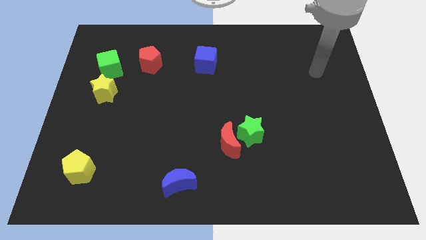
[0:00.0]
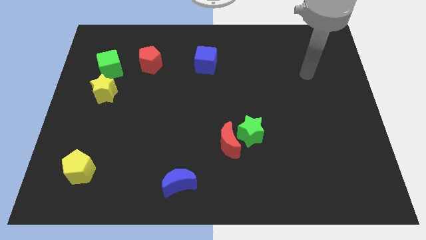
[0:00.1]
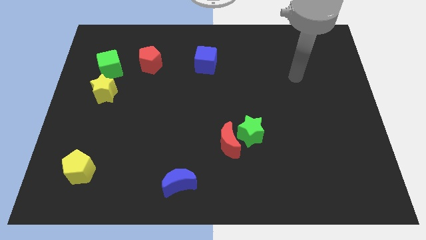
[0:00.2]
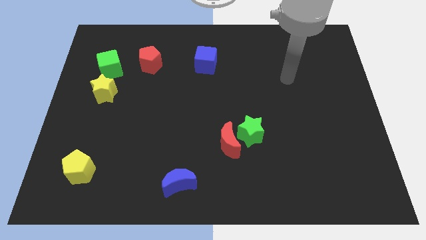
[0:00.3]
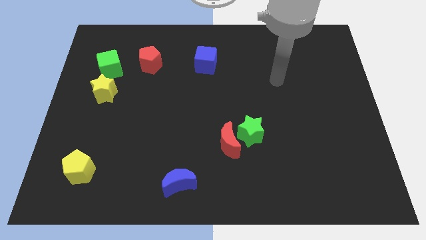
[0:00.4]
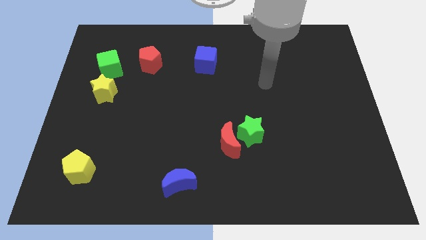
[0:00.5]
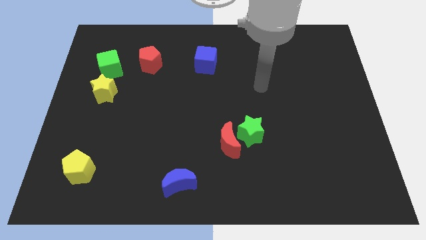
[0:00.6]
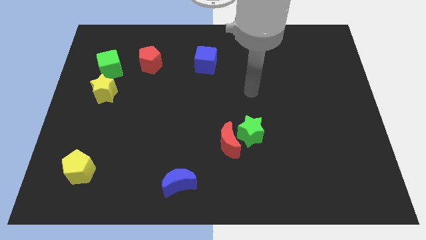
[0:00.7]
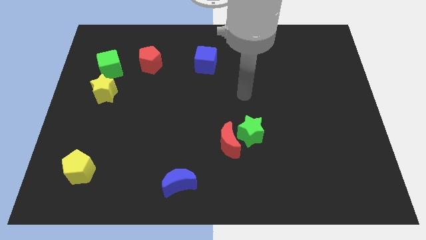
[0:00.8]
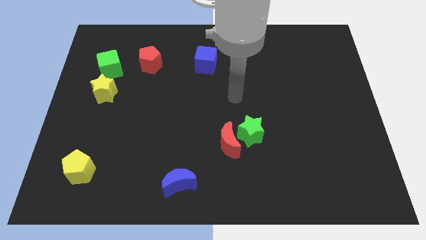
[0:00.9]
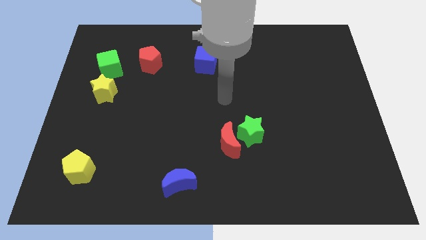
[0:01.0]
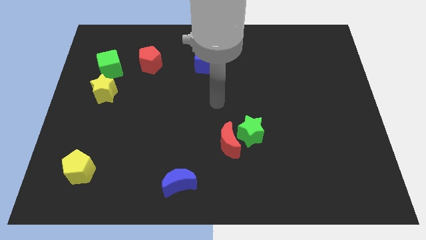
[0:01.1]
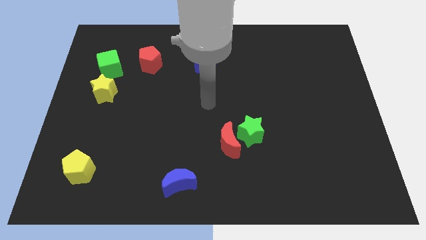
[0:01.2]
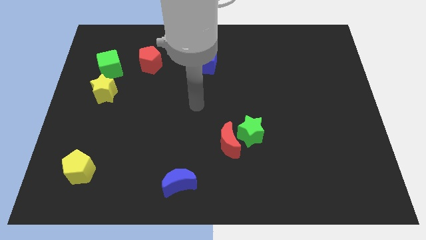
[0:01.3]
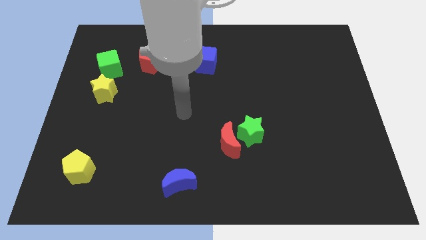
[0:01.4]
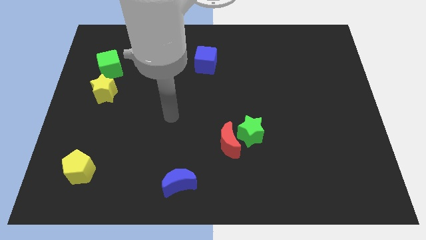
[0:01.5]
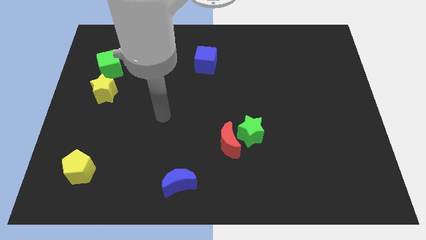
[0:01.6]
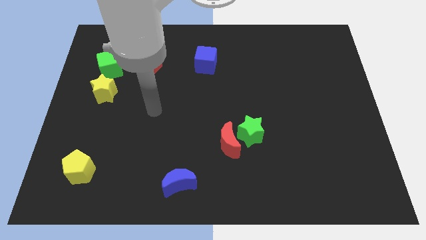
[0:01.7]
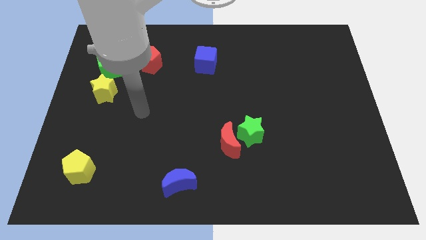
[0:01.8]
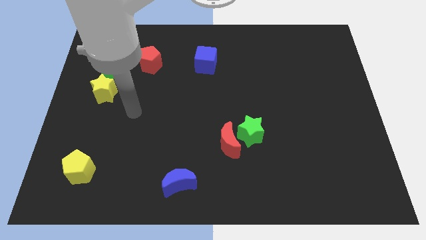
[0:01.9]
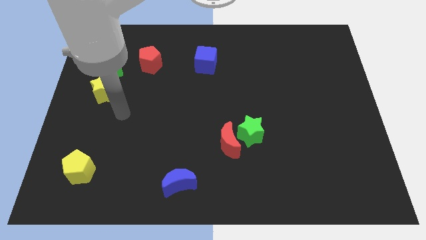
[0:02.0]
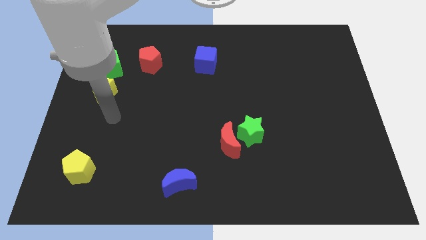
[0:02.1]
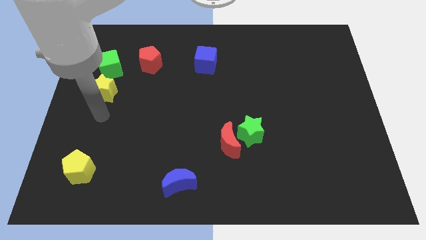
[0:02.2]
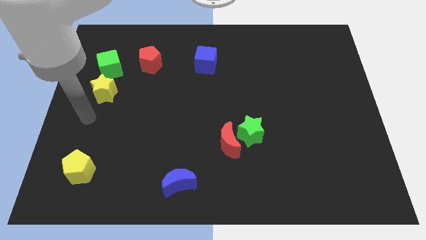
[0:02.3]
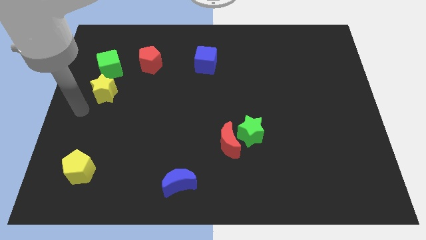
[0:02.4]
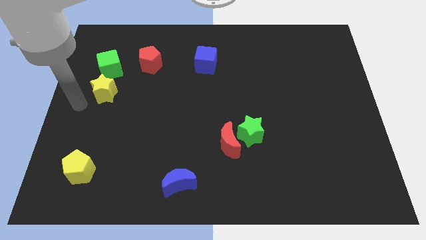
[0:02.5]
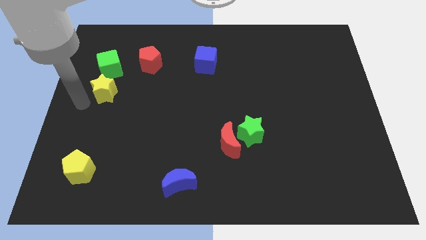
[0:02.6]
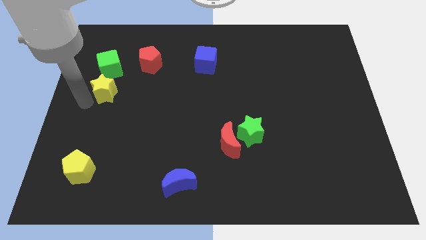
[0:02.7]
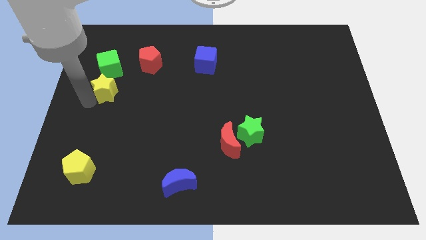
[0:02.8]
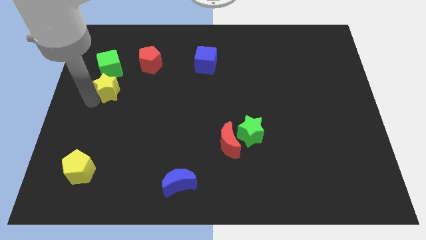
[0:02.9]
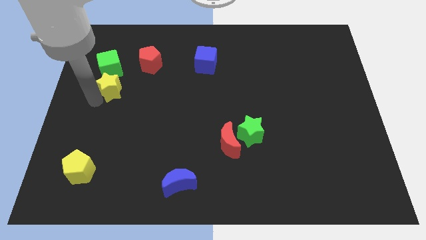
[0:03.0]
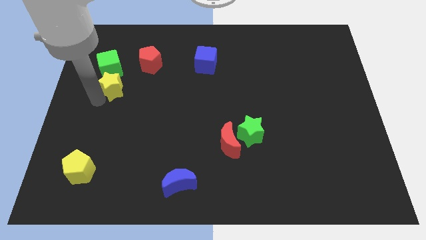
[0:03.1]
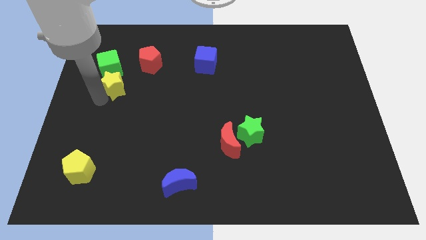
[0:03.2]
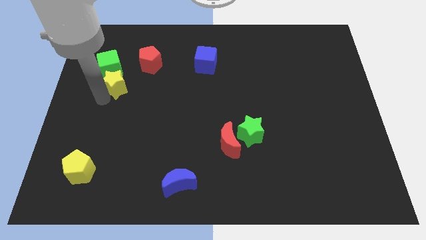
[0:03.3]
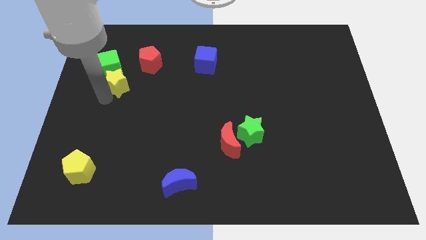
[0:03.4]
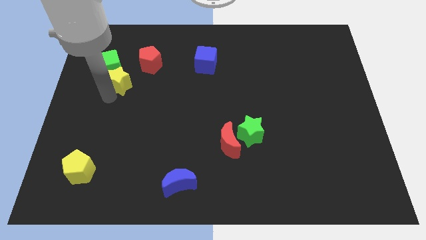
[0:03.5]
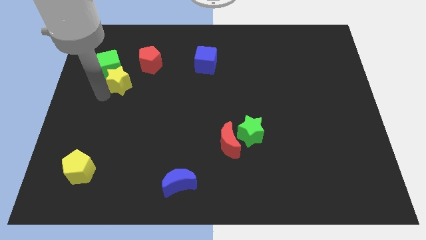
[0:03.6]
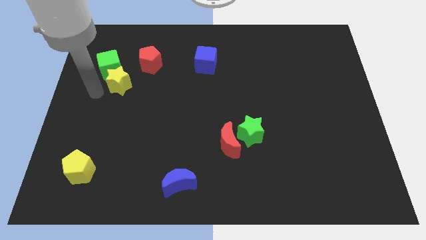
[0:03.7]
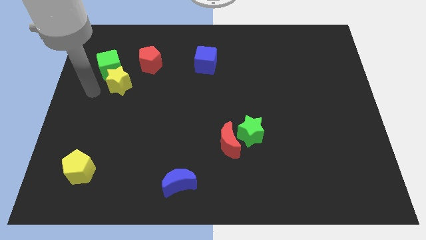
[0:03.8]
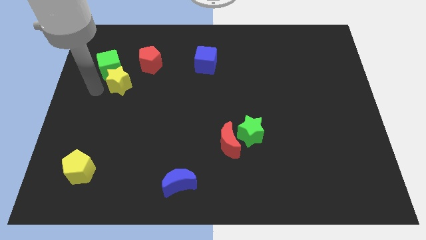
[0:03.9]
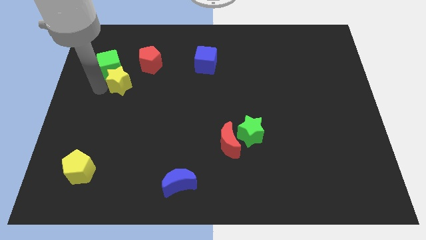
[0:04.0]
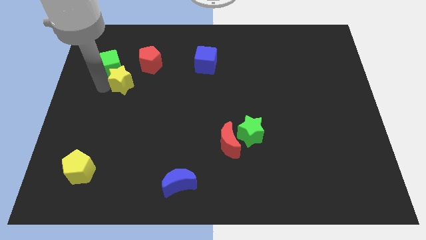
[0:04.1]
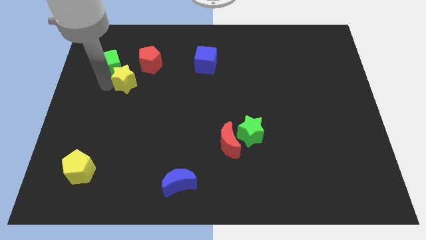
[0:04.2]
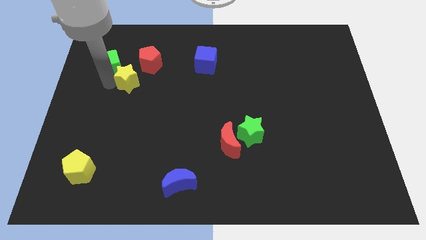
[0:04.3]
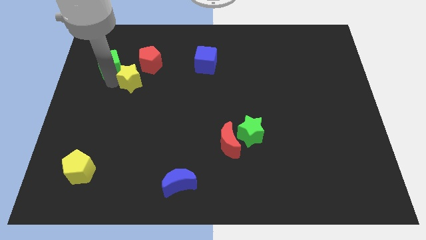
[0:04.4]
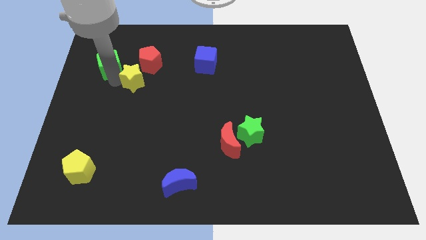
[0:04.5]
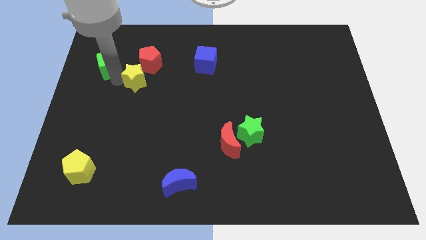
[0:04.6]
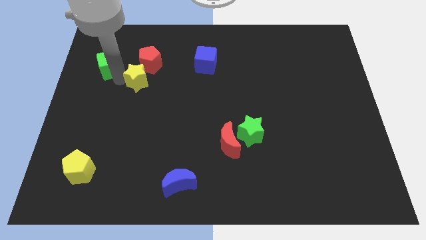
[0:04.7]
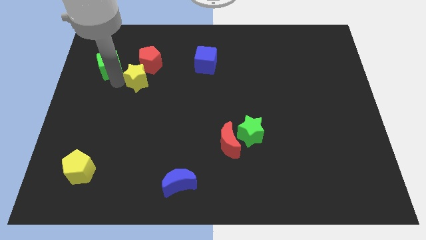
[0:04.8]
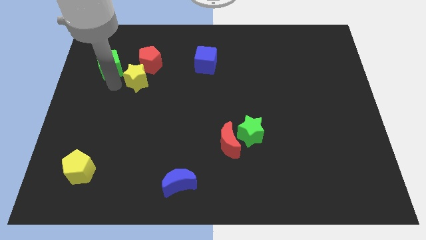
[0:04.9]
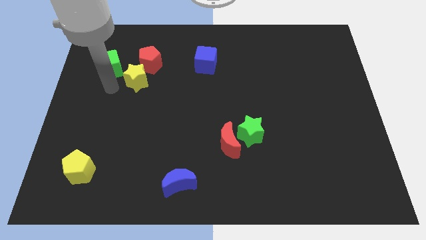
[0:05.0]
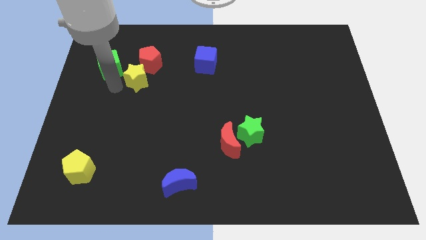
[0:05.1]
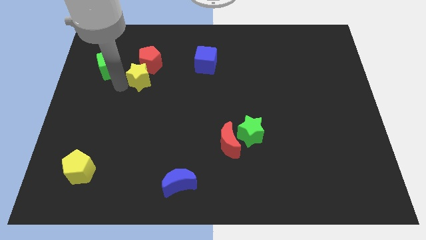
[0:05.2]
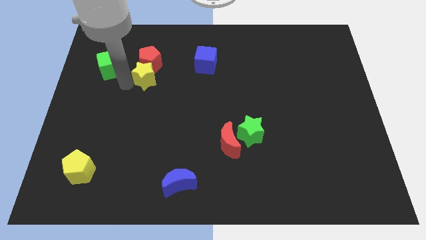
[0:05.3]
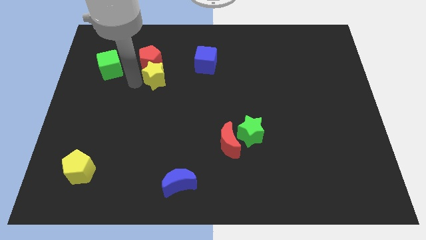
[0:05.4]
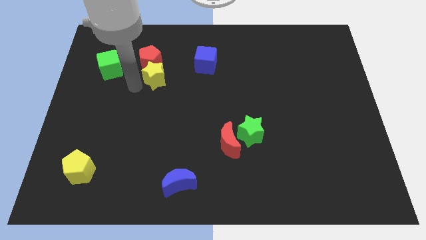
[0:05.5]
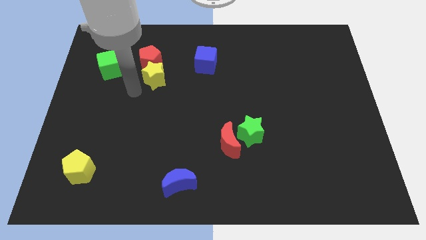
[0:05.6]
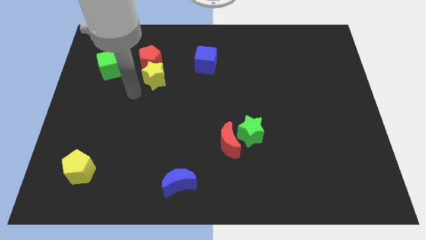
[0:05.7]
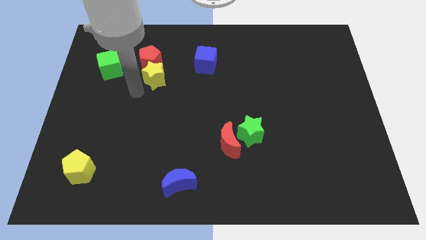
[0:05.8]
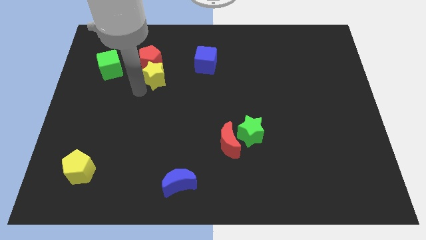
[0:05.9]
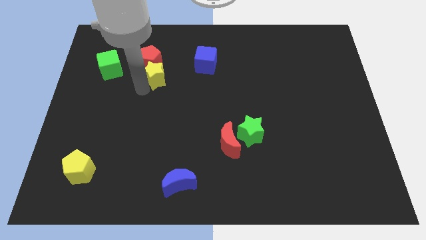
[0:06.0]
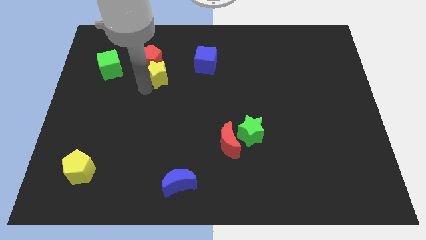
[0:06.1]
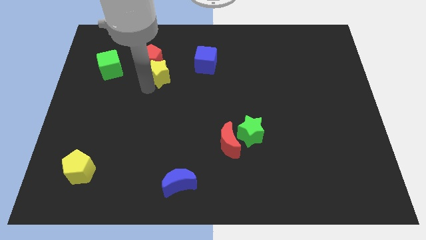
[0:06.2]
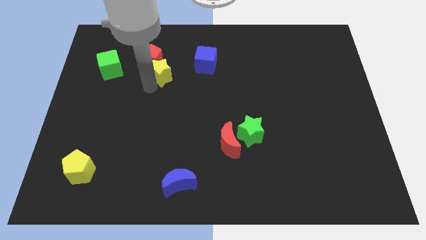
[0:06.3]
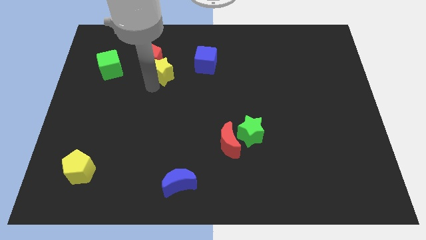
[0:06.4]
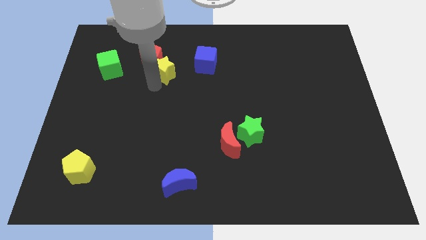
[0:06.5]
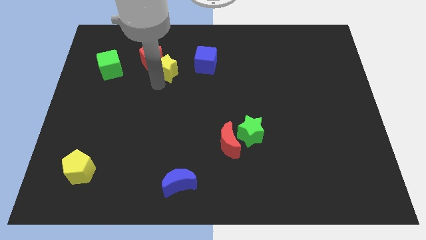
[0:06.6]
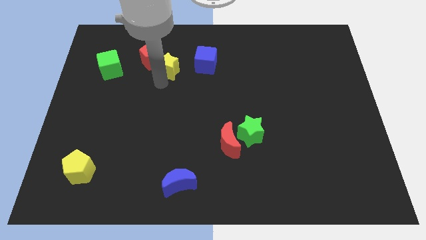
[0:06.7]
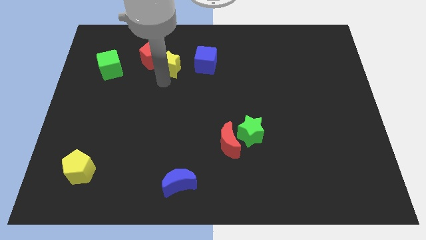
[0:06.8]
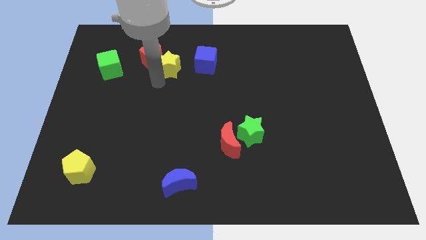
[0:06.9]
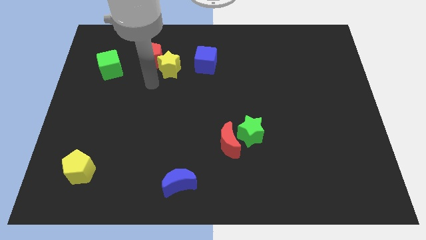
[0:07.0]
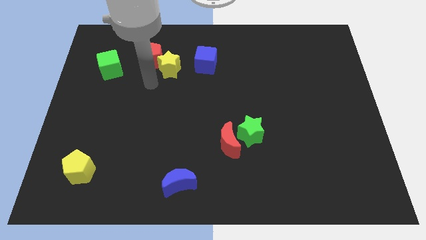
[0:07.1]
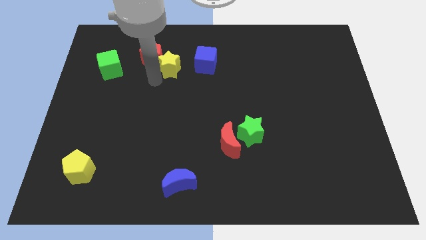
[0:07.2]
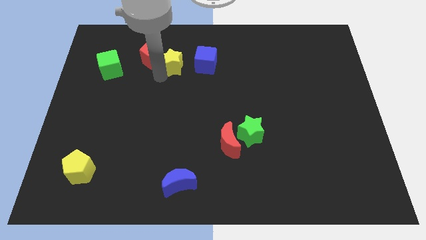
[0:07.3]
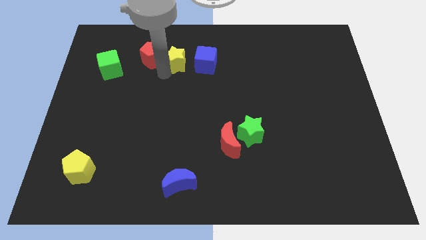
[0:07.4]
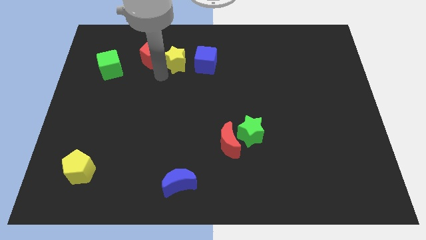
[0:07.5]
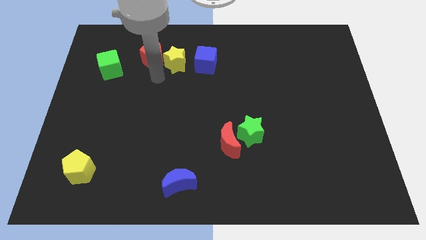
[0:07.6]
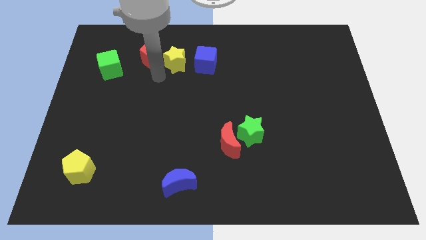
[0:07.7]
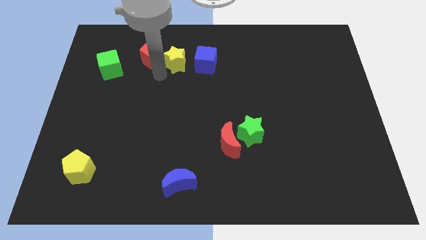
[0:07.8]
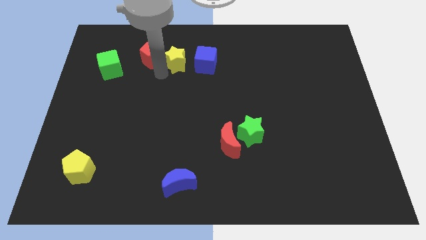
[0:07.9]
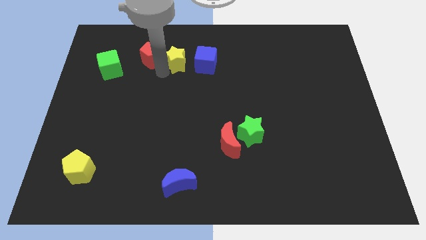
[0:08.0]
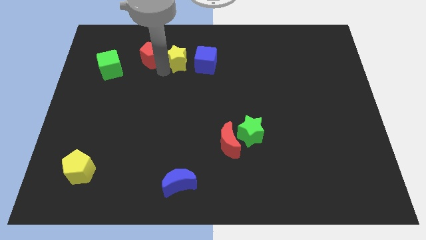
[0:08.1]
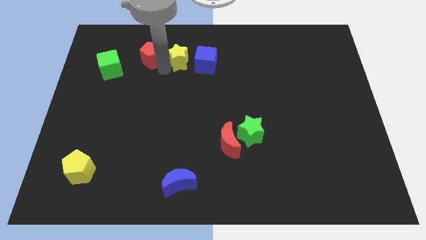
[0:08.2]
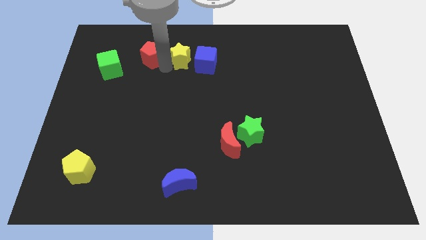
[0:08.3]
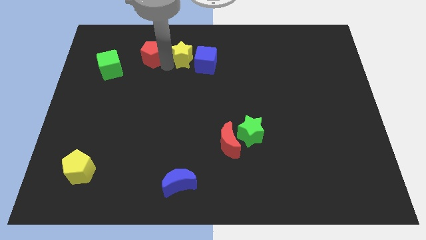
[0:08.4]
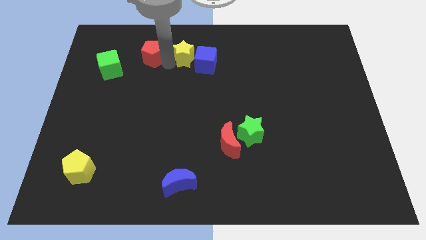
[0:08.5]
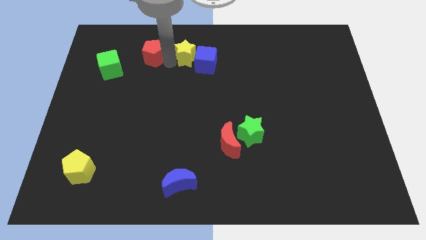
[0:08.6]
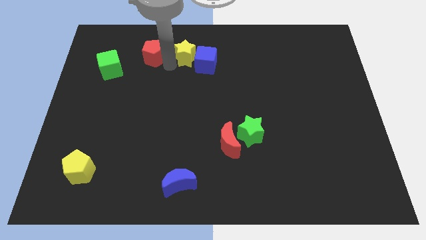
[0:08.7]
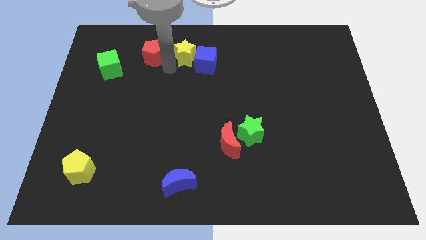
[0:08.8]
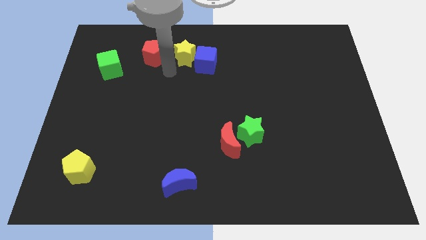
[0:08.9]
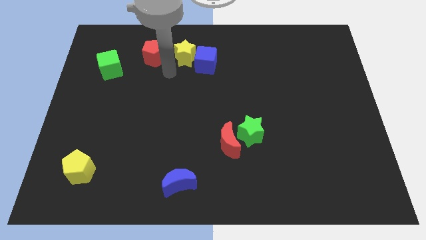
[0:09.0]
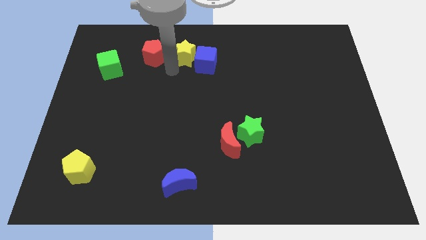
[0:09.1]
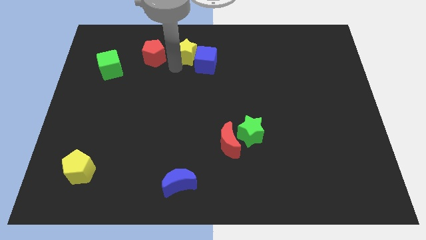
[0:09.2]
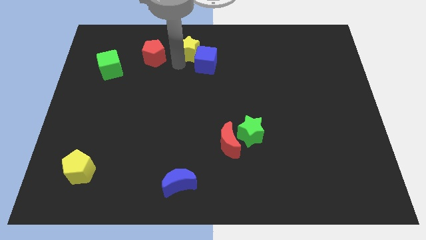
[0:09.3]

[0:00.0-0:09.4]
slide the yellow star to the top
